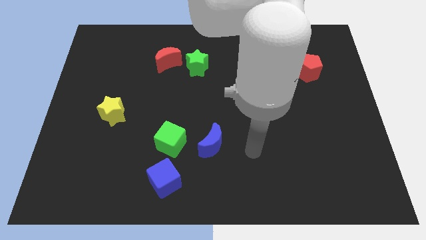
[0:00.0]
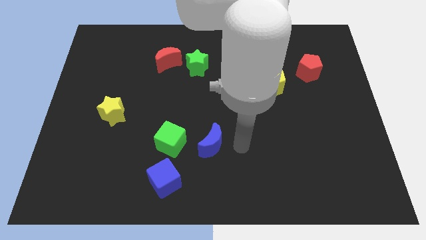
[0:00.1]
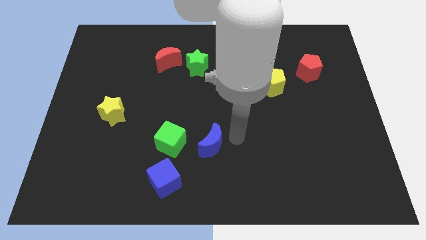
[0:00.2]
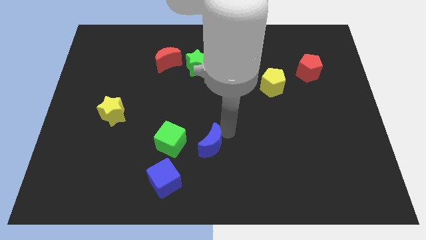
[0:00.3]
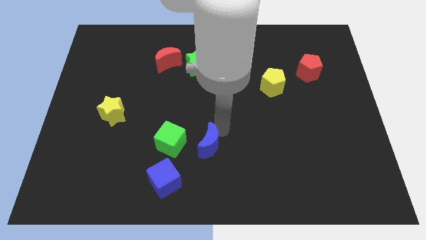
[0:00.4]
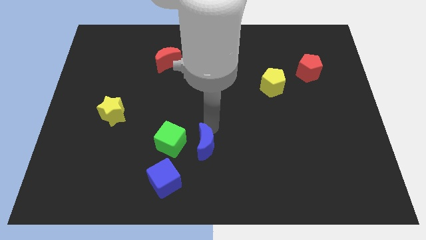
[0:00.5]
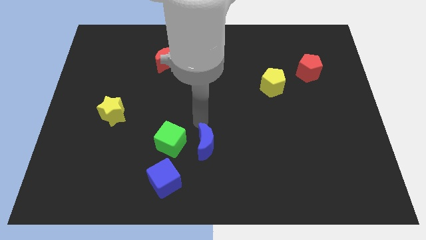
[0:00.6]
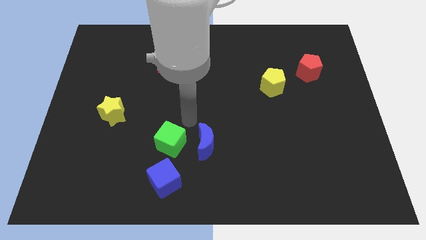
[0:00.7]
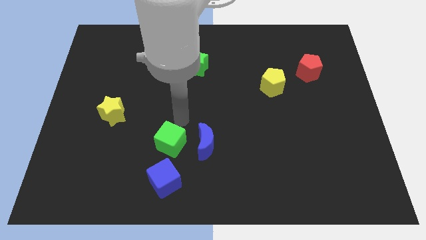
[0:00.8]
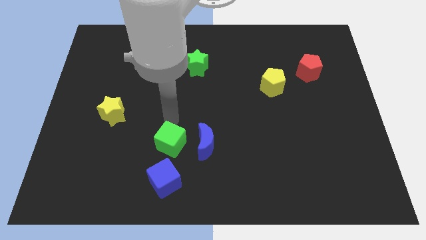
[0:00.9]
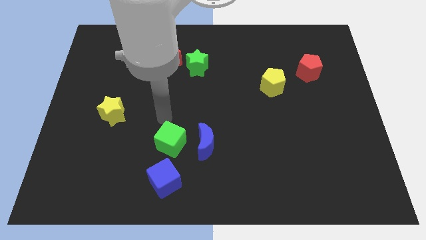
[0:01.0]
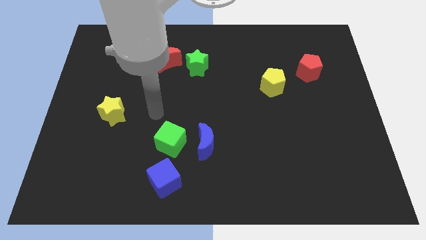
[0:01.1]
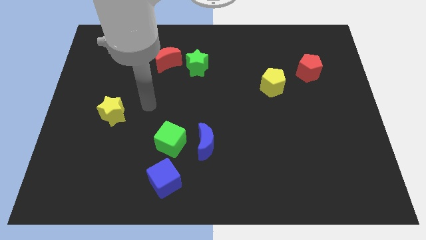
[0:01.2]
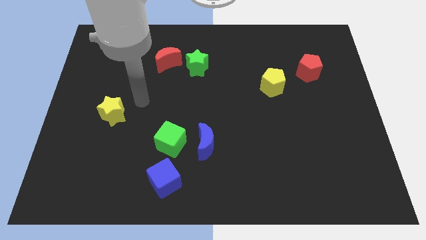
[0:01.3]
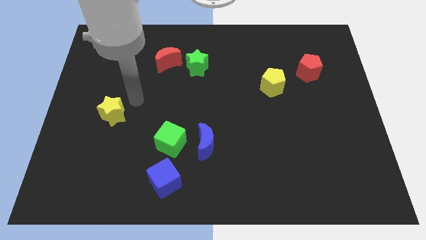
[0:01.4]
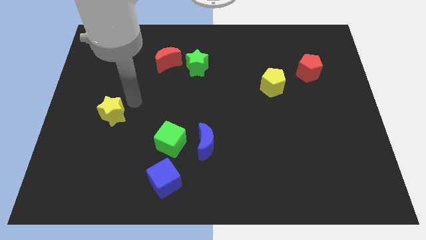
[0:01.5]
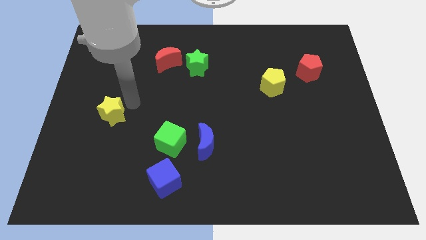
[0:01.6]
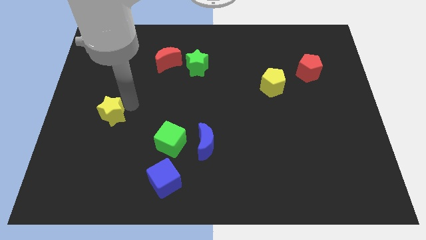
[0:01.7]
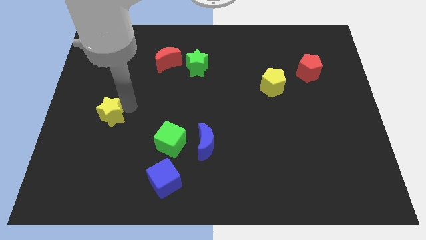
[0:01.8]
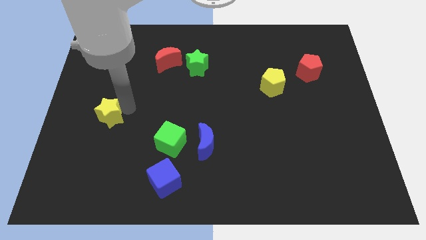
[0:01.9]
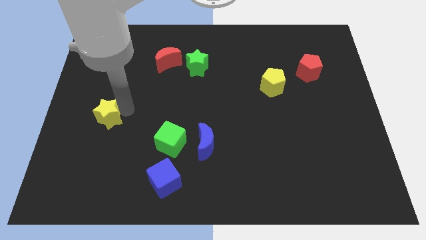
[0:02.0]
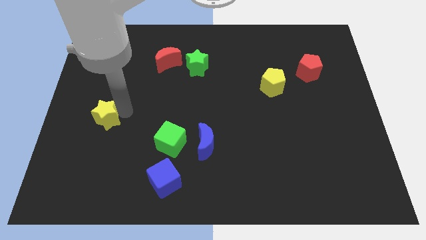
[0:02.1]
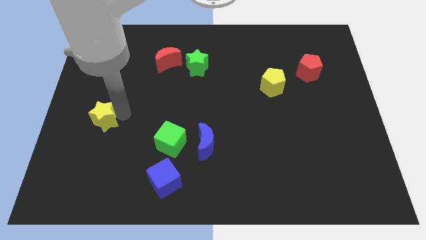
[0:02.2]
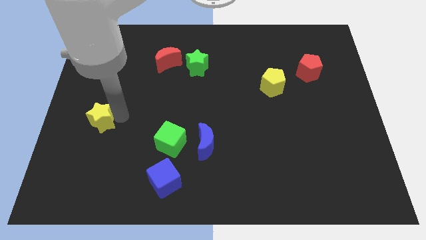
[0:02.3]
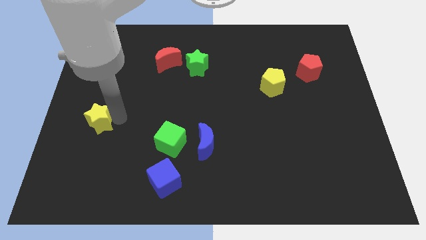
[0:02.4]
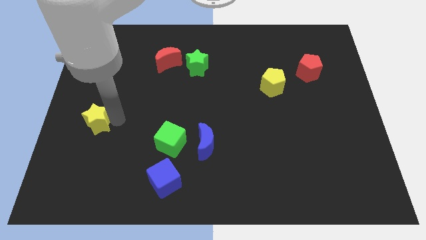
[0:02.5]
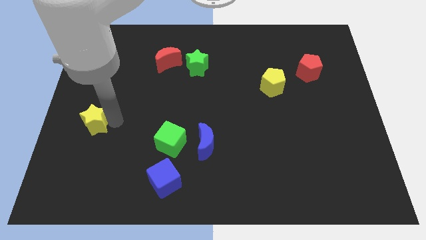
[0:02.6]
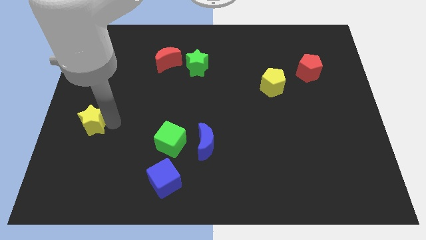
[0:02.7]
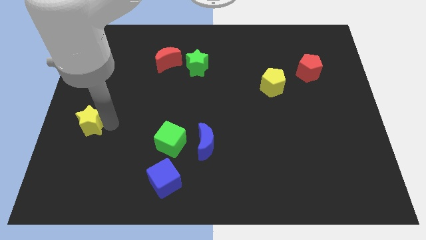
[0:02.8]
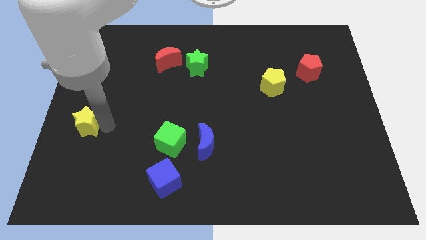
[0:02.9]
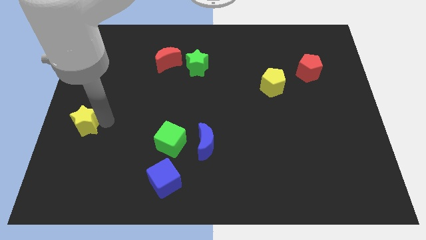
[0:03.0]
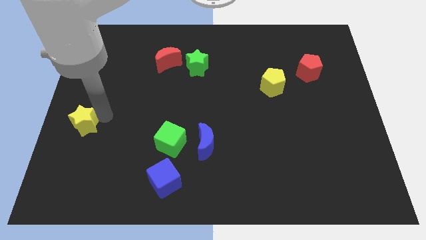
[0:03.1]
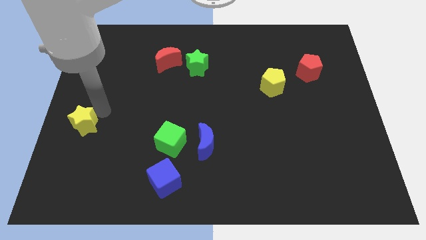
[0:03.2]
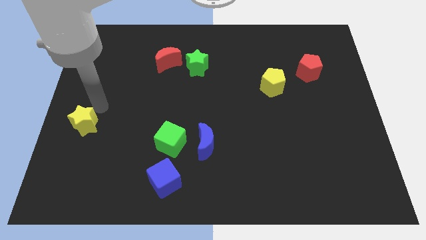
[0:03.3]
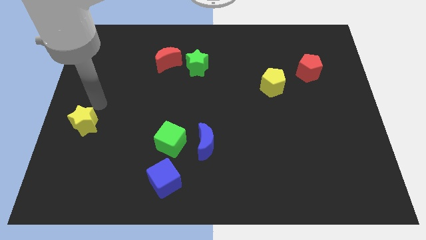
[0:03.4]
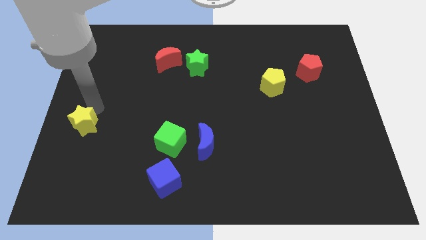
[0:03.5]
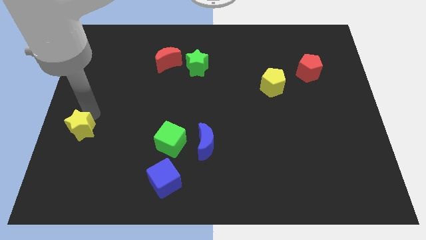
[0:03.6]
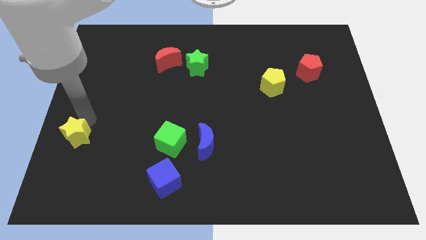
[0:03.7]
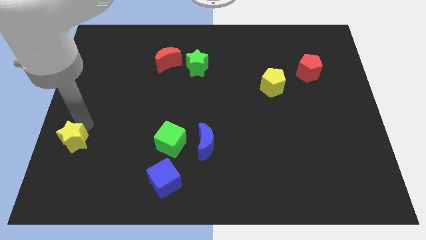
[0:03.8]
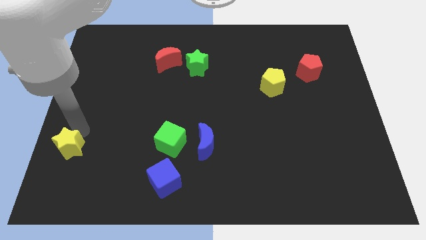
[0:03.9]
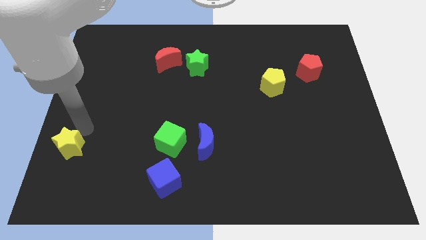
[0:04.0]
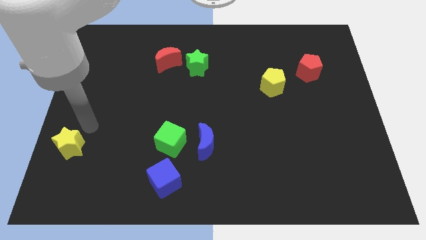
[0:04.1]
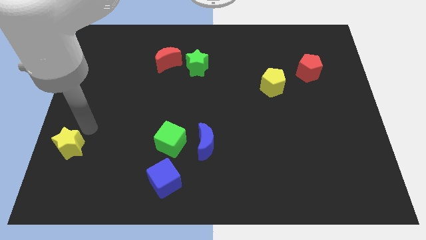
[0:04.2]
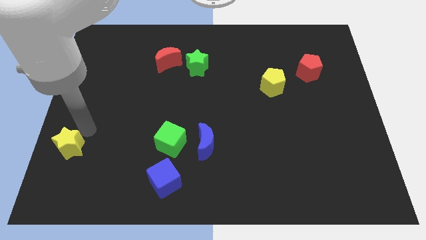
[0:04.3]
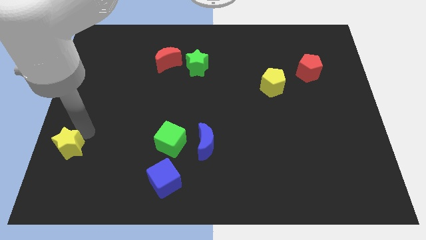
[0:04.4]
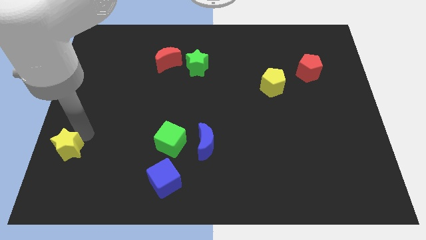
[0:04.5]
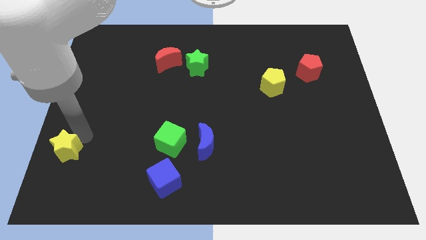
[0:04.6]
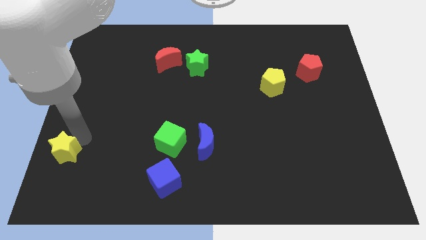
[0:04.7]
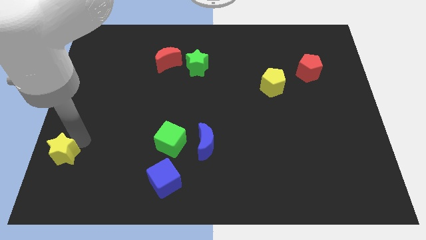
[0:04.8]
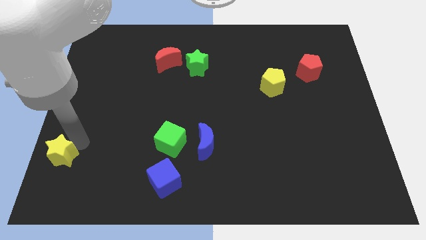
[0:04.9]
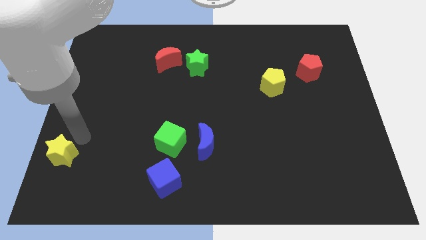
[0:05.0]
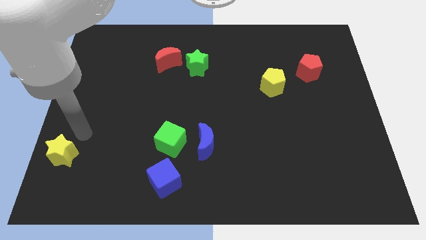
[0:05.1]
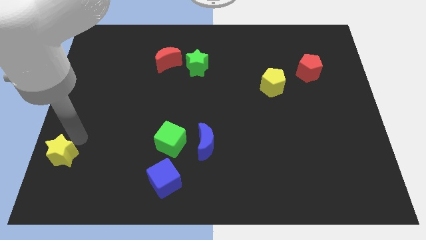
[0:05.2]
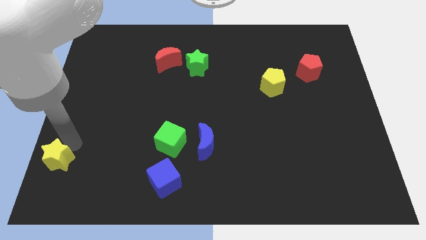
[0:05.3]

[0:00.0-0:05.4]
put the yellow star to the bottom left corner

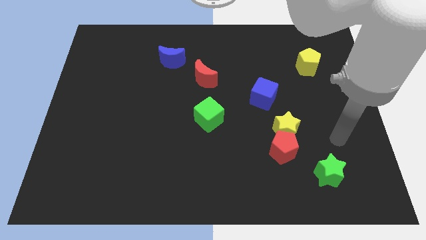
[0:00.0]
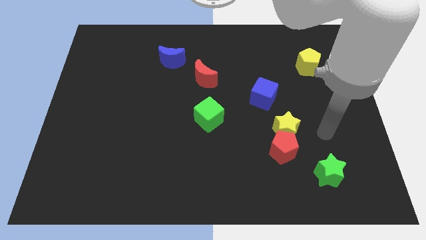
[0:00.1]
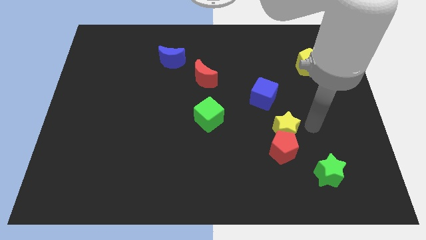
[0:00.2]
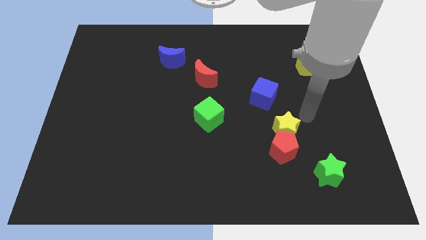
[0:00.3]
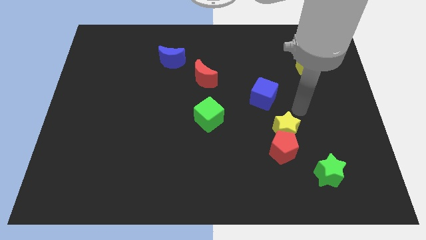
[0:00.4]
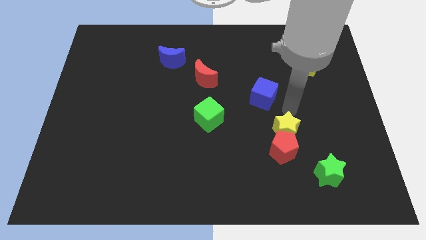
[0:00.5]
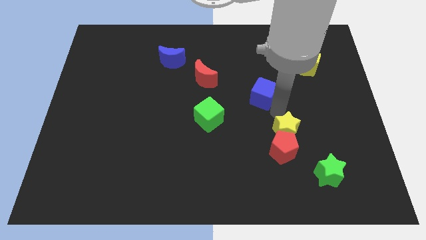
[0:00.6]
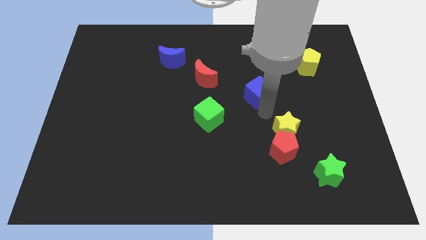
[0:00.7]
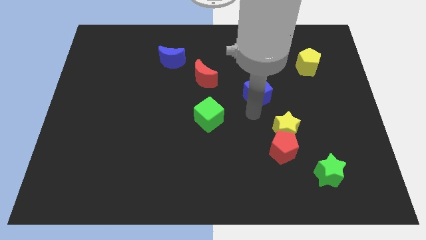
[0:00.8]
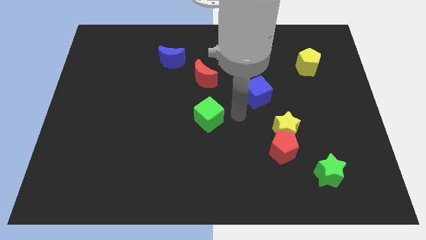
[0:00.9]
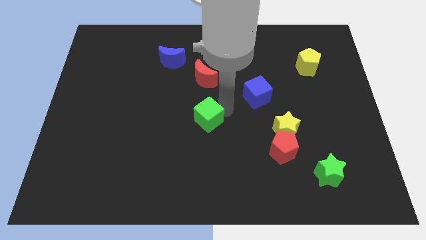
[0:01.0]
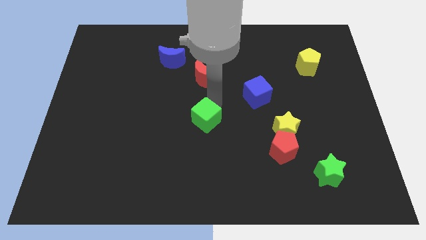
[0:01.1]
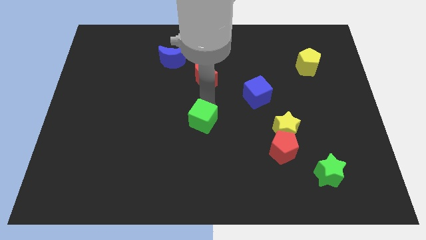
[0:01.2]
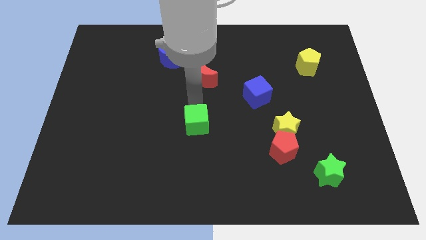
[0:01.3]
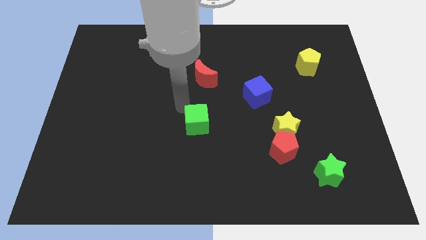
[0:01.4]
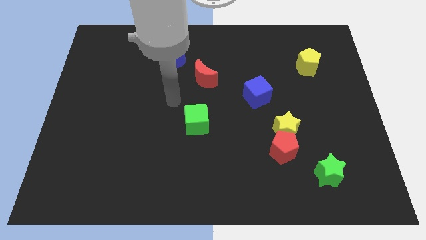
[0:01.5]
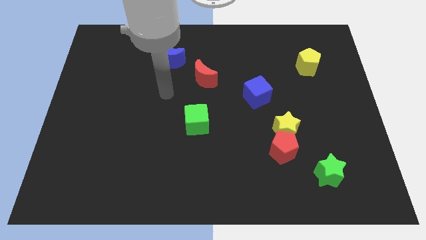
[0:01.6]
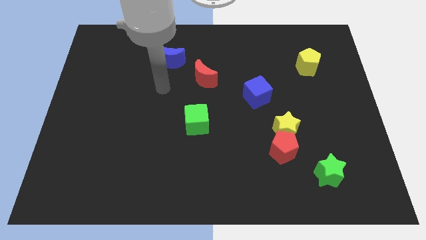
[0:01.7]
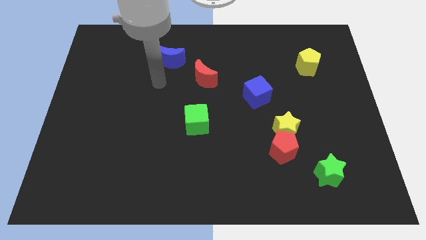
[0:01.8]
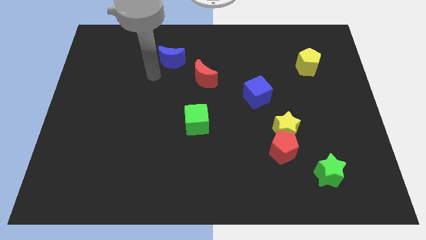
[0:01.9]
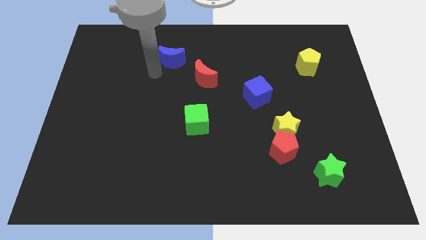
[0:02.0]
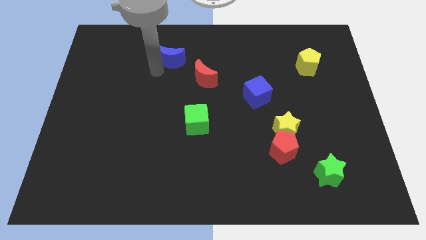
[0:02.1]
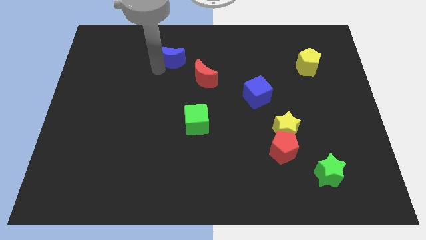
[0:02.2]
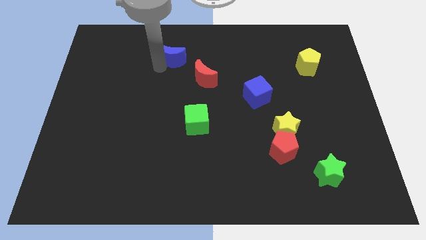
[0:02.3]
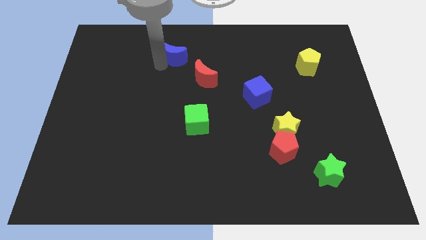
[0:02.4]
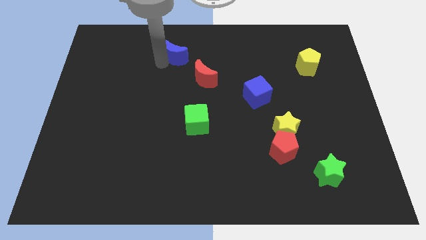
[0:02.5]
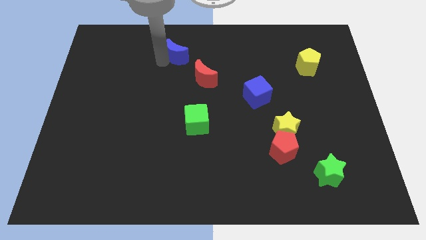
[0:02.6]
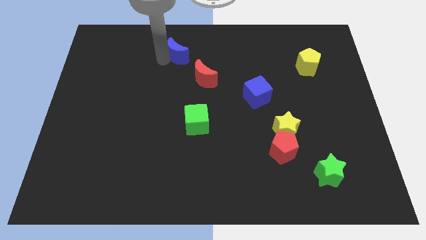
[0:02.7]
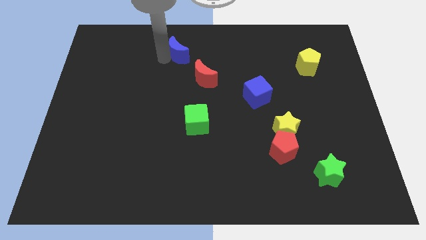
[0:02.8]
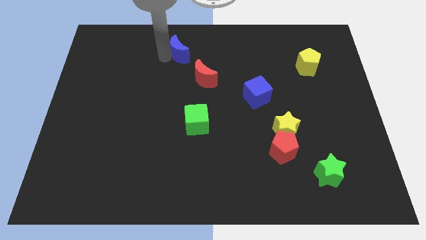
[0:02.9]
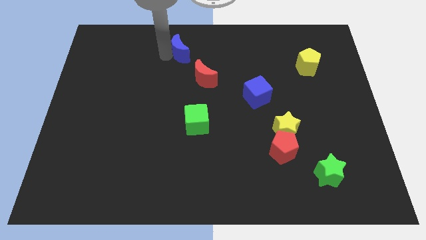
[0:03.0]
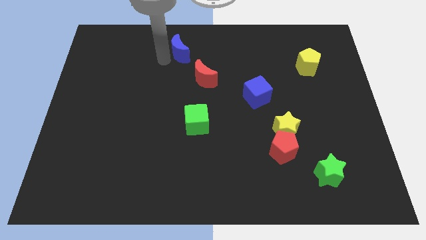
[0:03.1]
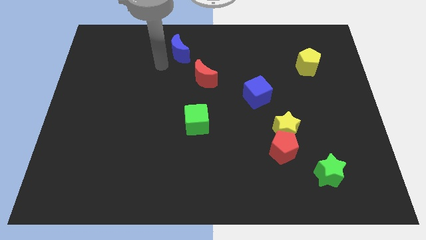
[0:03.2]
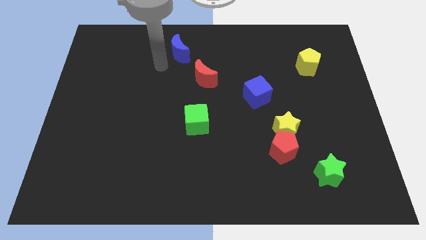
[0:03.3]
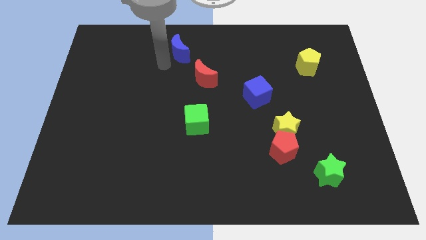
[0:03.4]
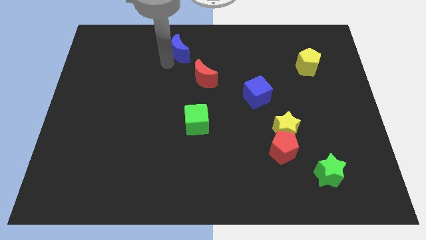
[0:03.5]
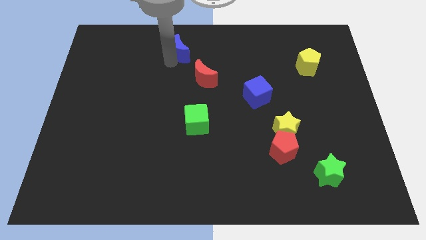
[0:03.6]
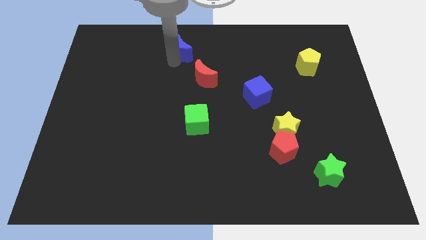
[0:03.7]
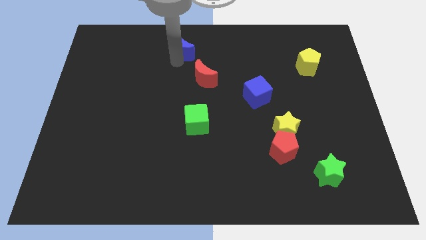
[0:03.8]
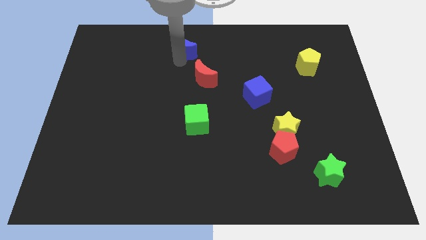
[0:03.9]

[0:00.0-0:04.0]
push the blue moon to the towards your base
